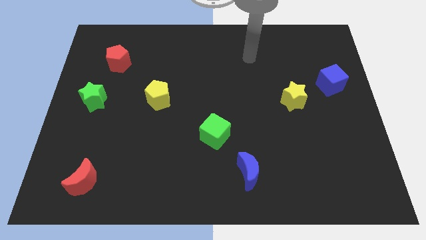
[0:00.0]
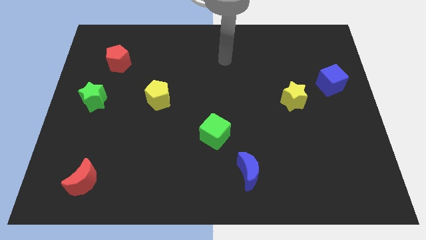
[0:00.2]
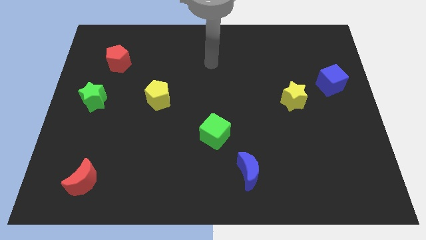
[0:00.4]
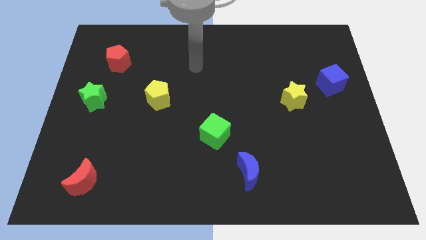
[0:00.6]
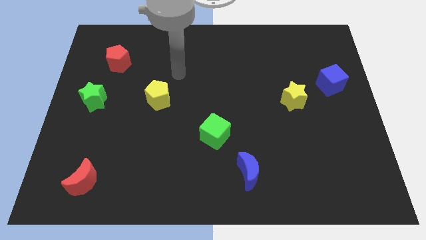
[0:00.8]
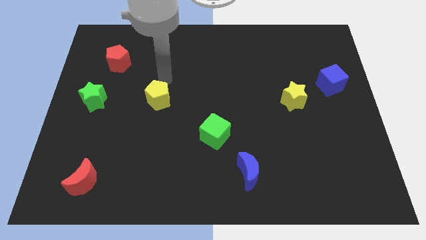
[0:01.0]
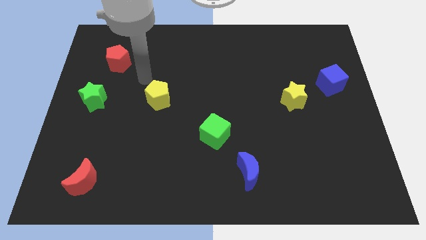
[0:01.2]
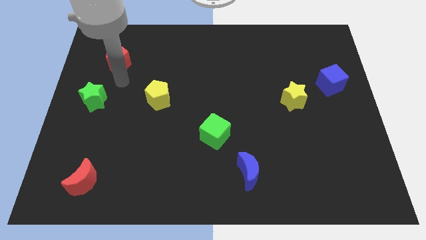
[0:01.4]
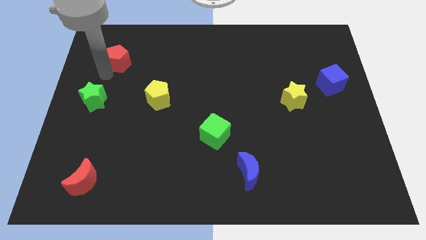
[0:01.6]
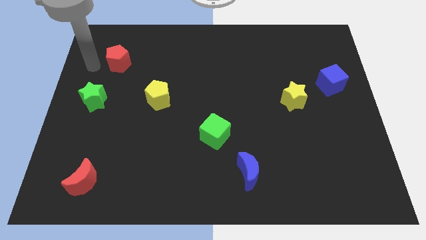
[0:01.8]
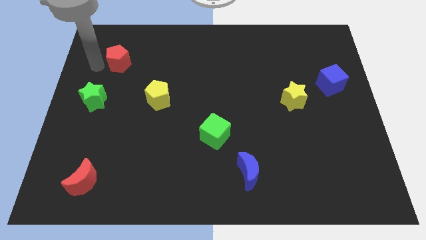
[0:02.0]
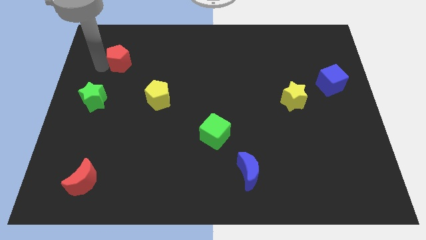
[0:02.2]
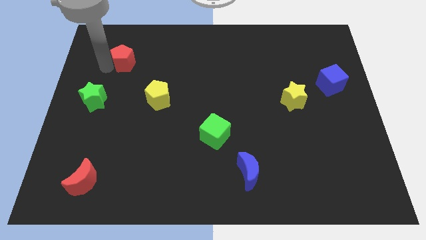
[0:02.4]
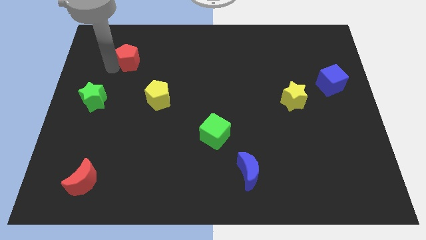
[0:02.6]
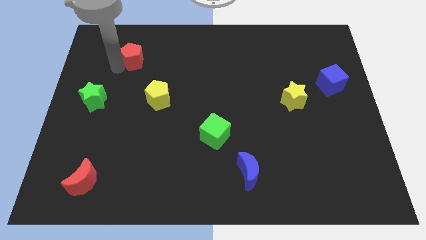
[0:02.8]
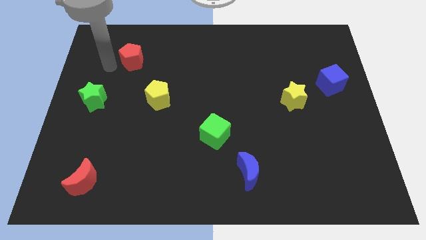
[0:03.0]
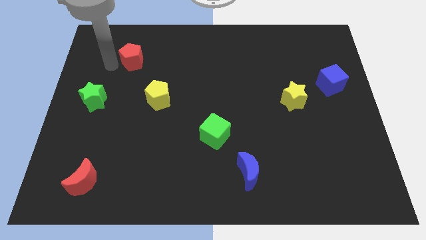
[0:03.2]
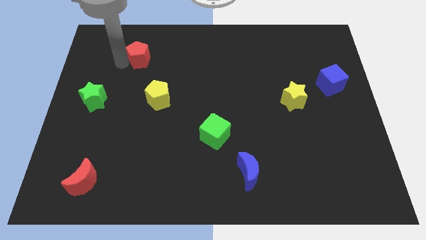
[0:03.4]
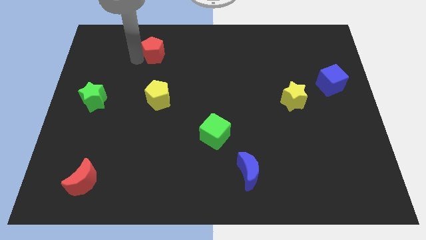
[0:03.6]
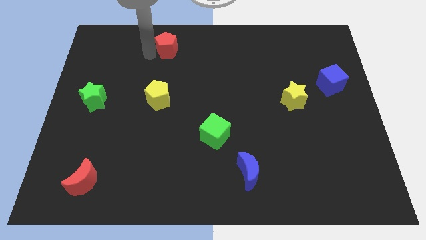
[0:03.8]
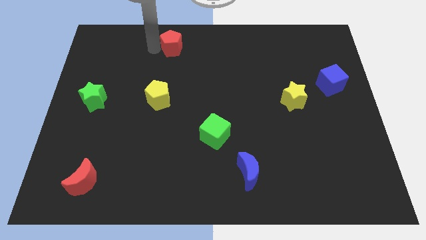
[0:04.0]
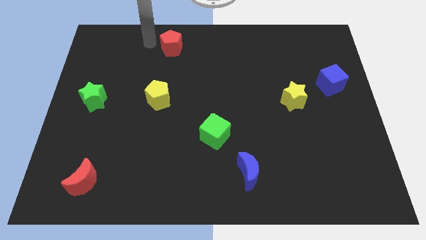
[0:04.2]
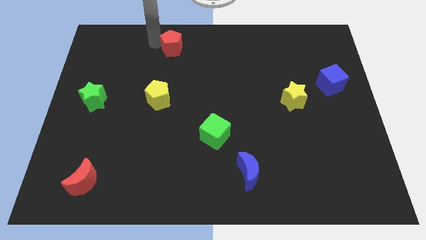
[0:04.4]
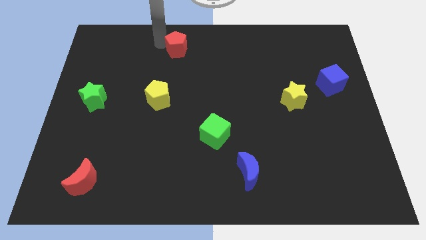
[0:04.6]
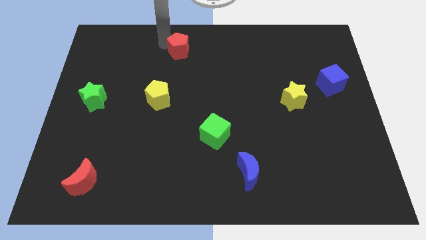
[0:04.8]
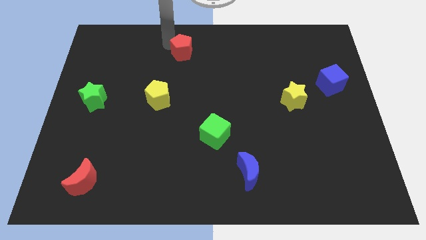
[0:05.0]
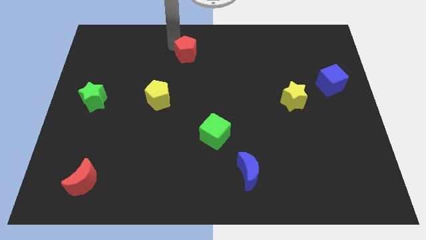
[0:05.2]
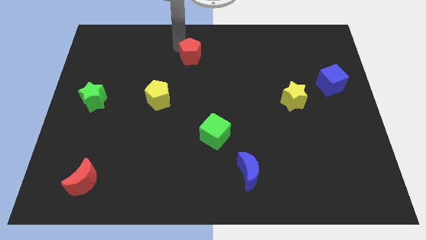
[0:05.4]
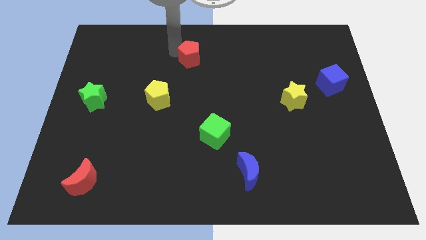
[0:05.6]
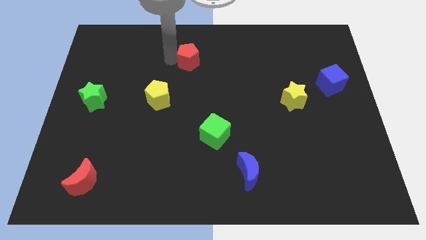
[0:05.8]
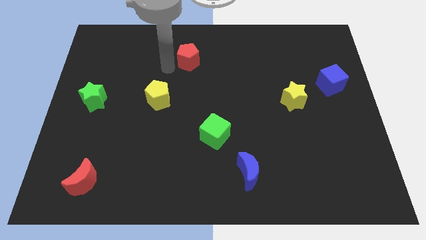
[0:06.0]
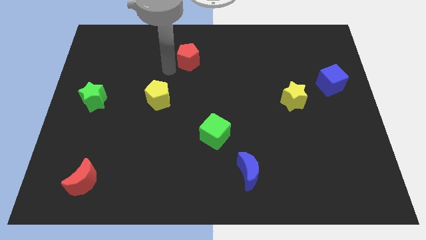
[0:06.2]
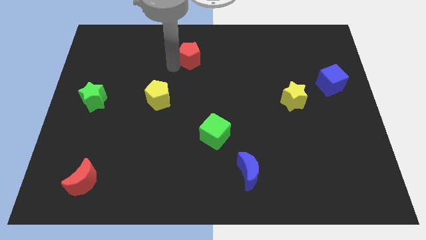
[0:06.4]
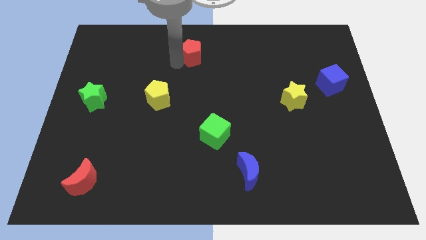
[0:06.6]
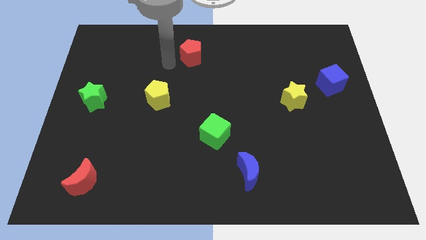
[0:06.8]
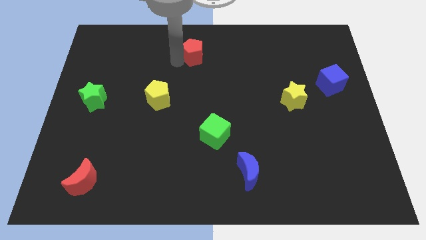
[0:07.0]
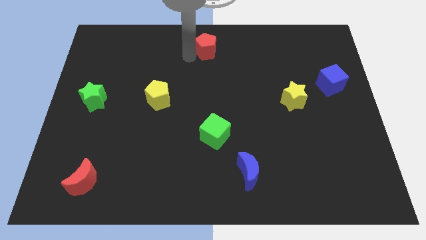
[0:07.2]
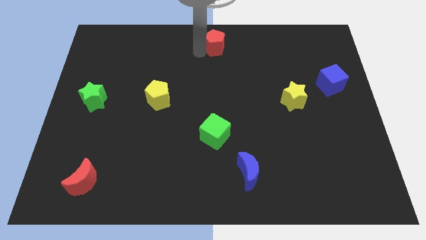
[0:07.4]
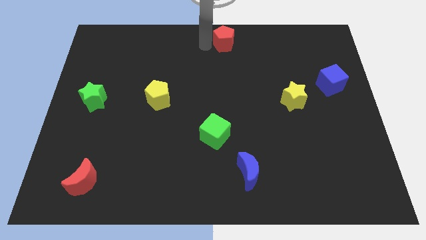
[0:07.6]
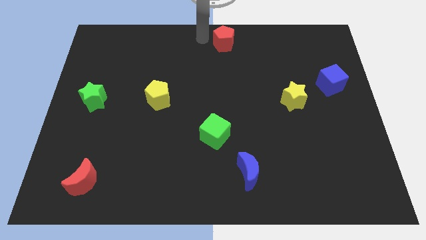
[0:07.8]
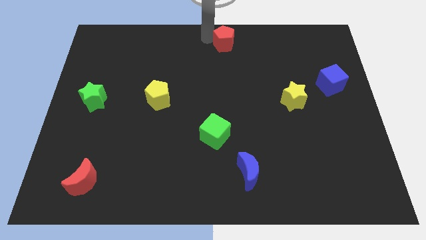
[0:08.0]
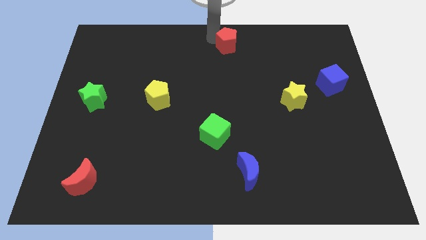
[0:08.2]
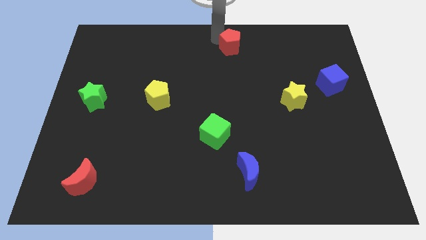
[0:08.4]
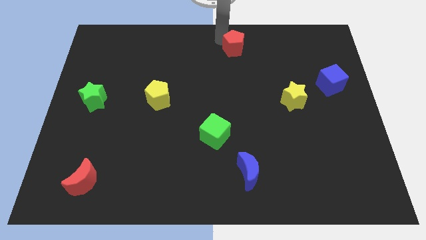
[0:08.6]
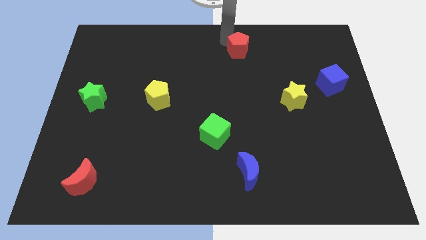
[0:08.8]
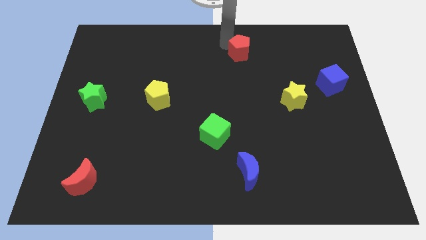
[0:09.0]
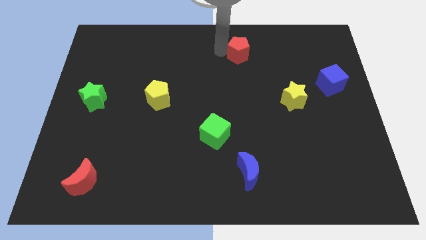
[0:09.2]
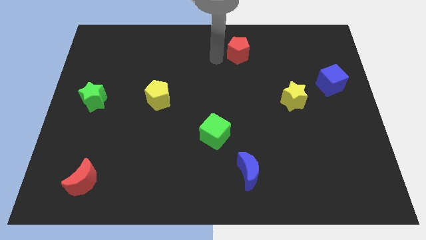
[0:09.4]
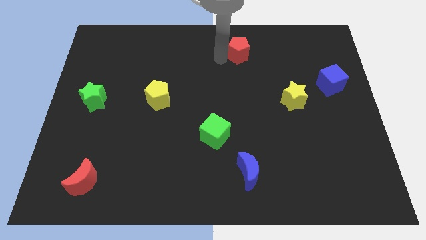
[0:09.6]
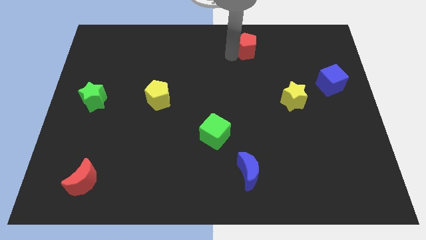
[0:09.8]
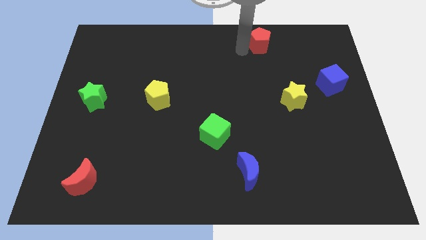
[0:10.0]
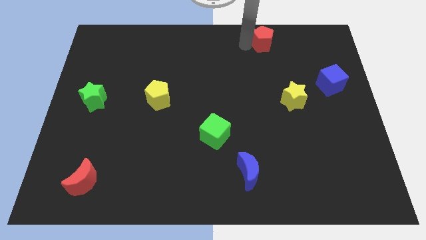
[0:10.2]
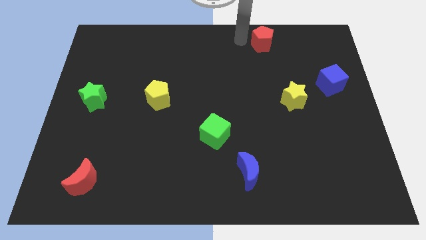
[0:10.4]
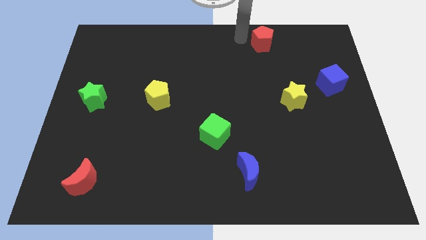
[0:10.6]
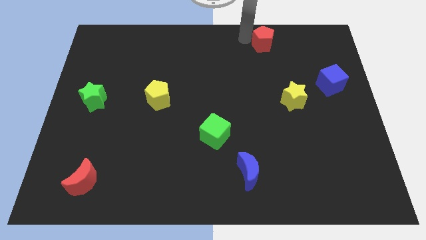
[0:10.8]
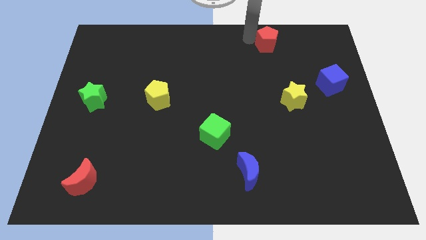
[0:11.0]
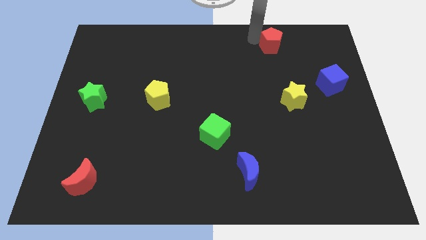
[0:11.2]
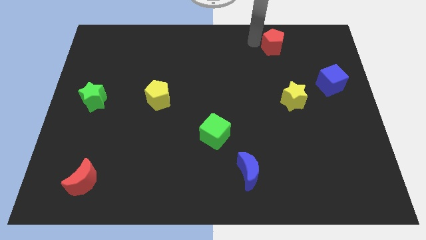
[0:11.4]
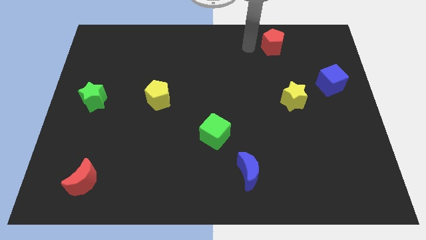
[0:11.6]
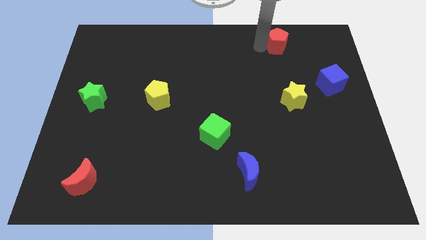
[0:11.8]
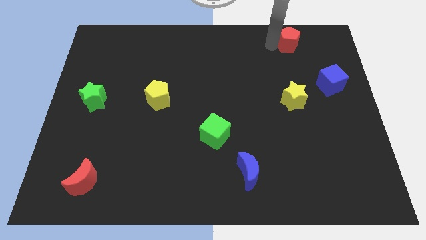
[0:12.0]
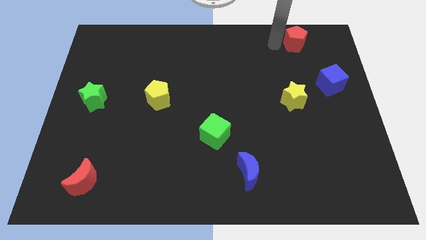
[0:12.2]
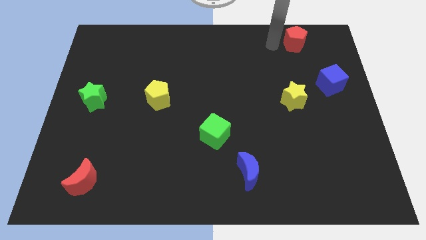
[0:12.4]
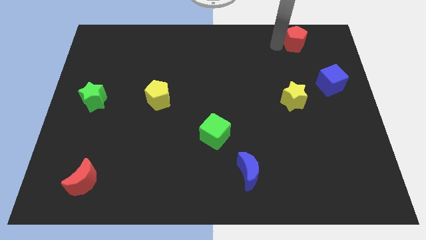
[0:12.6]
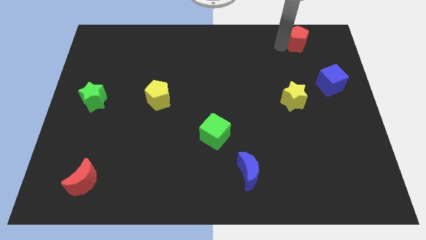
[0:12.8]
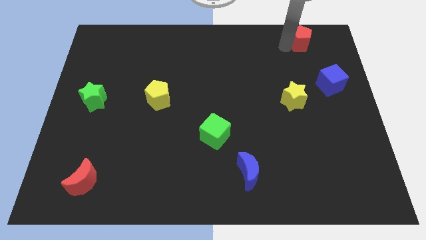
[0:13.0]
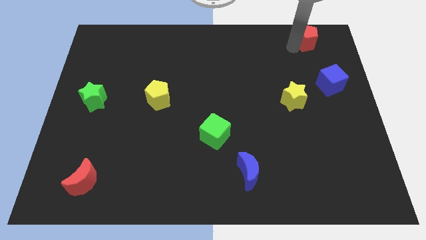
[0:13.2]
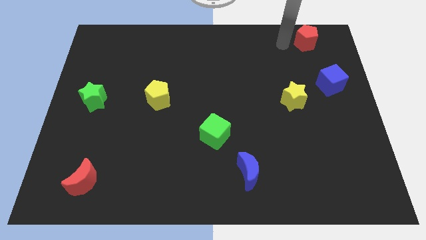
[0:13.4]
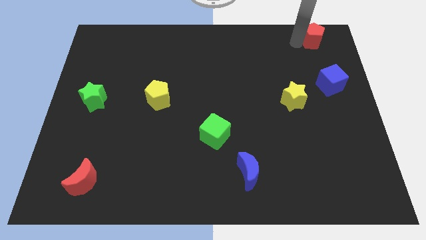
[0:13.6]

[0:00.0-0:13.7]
put the red pentagon to the upper right corner

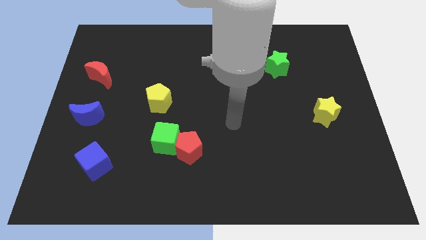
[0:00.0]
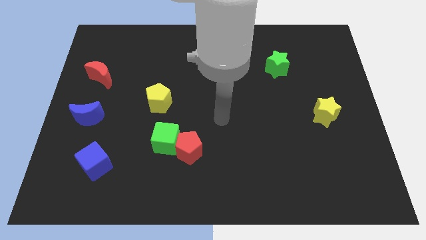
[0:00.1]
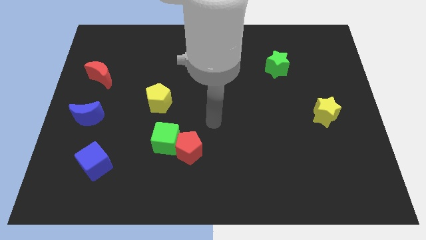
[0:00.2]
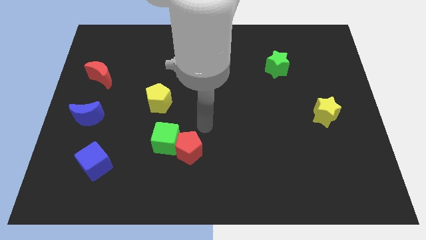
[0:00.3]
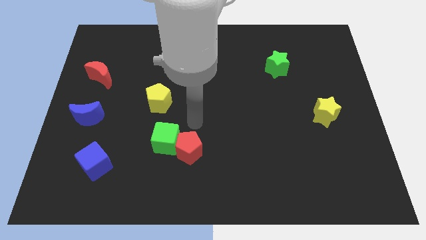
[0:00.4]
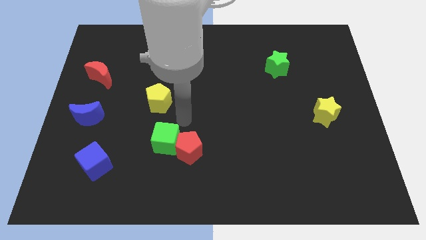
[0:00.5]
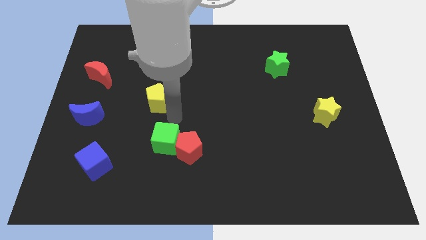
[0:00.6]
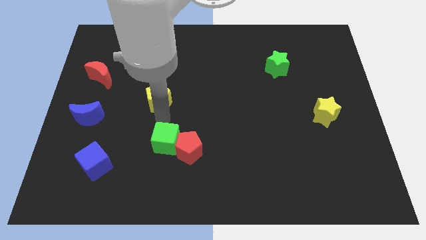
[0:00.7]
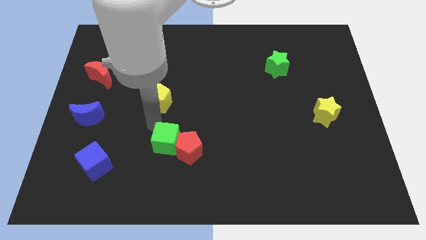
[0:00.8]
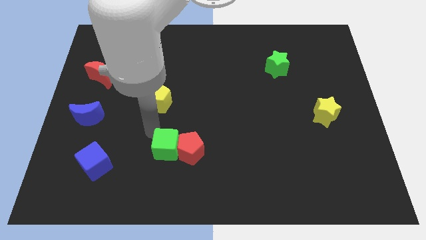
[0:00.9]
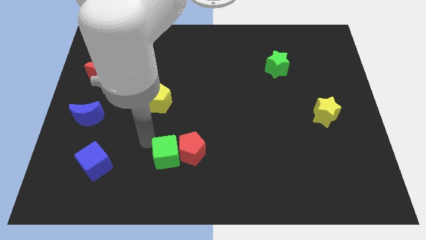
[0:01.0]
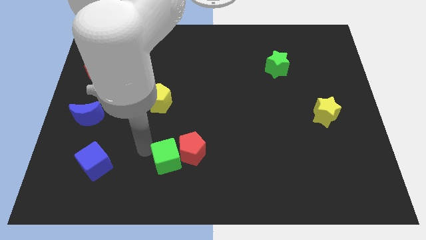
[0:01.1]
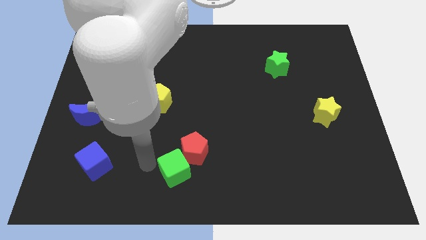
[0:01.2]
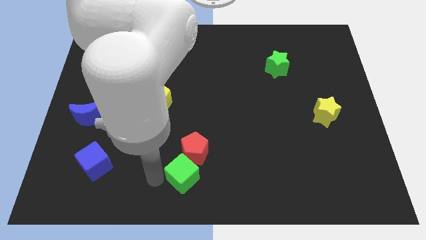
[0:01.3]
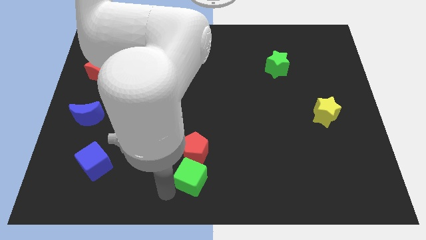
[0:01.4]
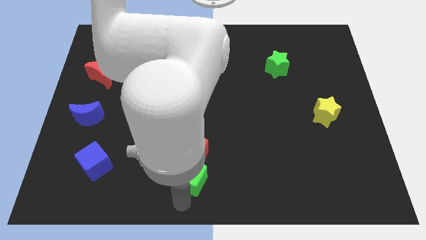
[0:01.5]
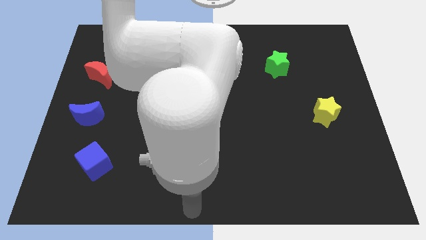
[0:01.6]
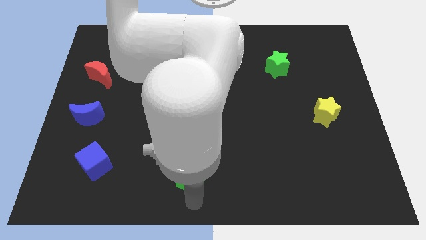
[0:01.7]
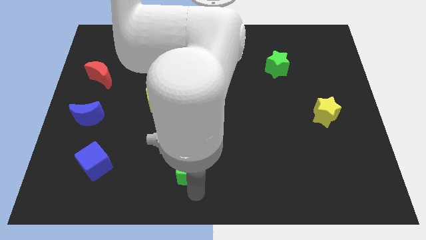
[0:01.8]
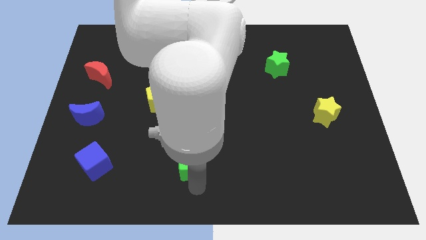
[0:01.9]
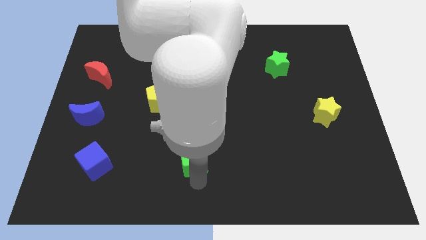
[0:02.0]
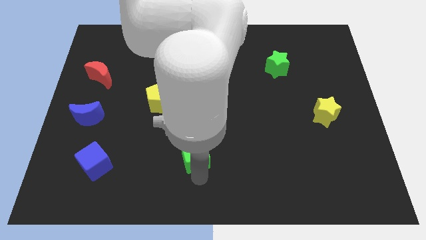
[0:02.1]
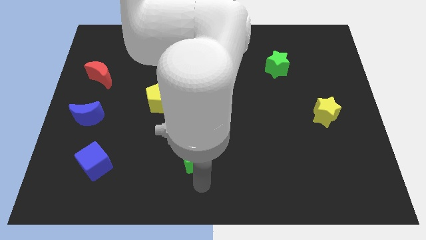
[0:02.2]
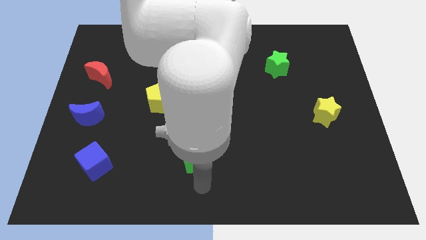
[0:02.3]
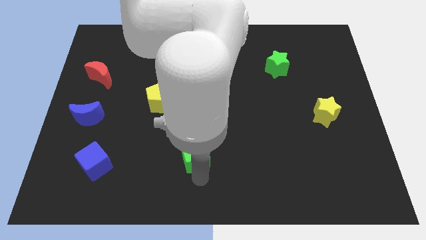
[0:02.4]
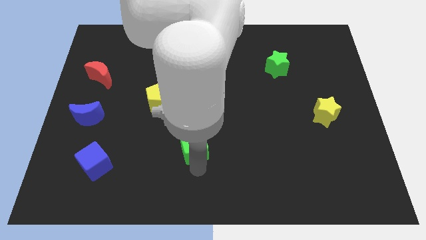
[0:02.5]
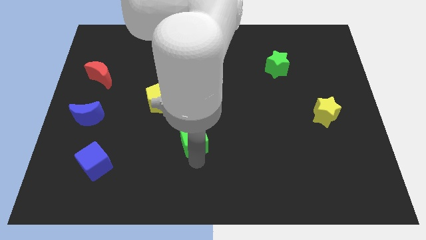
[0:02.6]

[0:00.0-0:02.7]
put the green cube to the middle of the board
